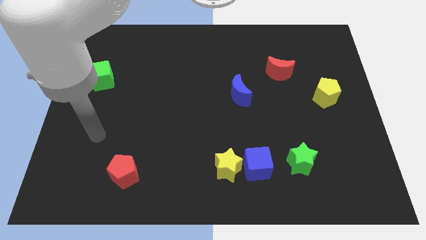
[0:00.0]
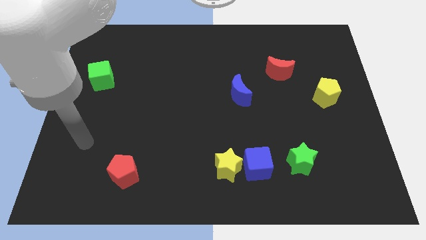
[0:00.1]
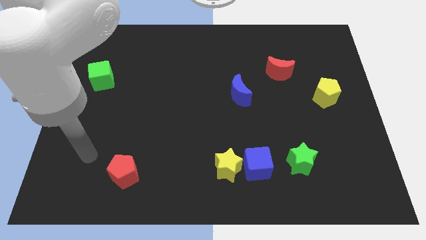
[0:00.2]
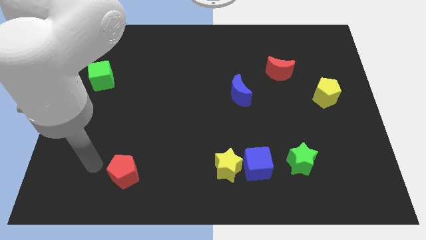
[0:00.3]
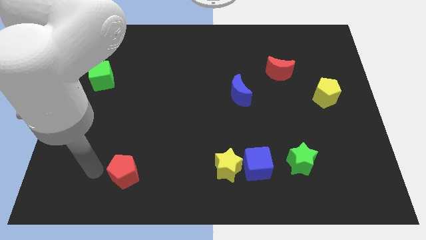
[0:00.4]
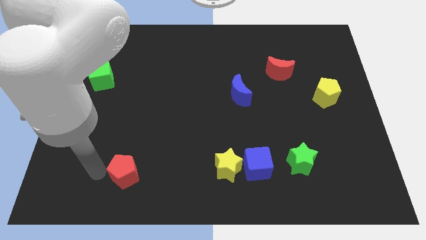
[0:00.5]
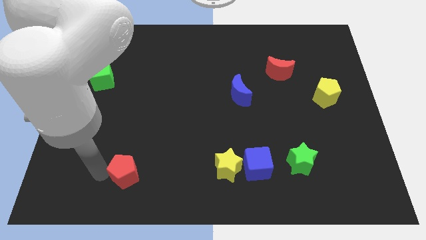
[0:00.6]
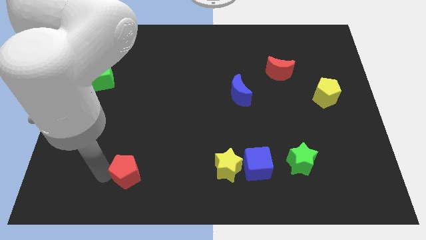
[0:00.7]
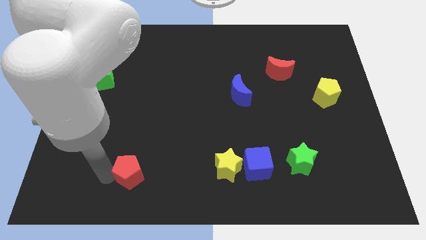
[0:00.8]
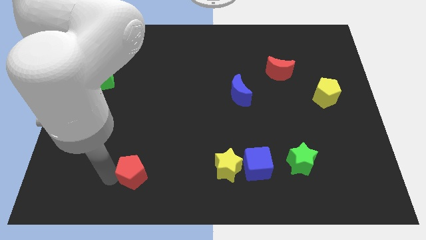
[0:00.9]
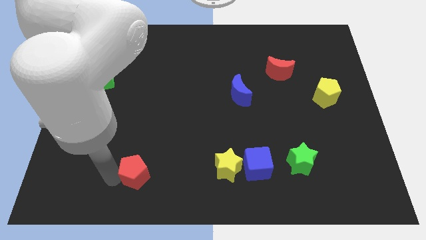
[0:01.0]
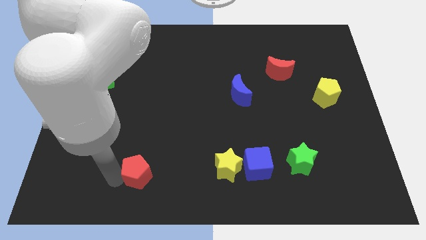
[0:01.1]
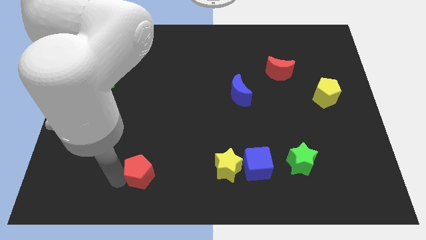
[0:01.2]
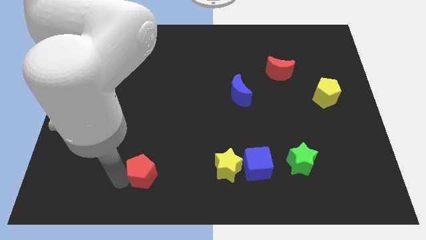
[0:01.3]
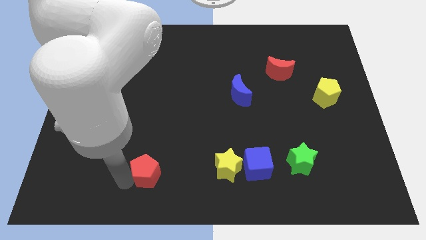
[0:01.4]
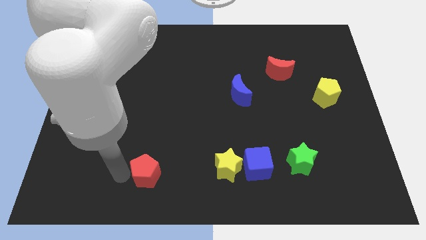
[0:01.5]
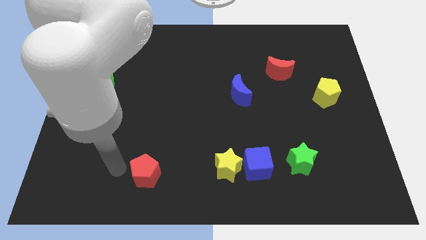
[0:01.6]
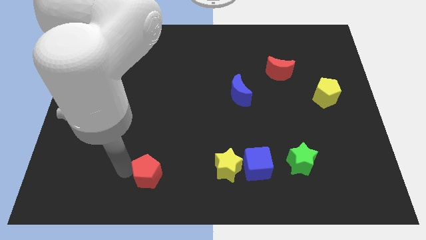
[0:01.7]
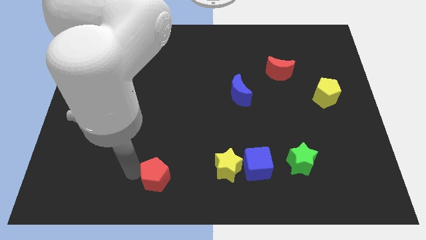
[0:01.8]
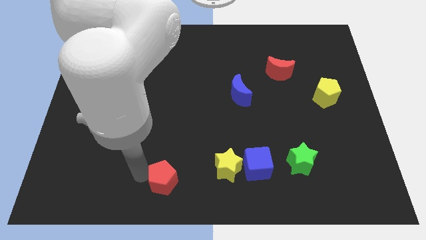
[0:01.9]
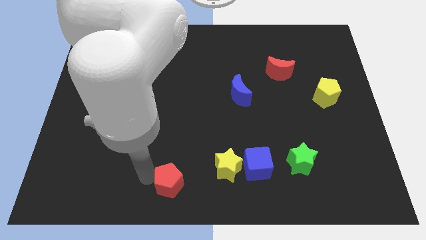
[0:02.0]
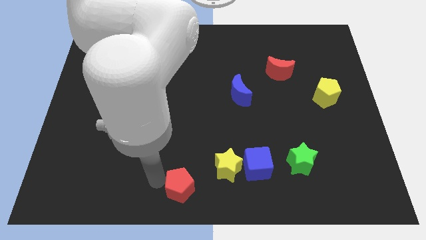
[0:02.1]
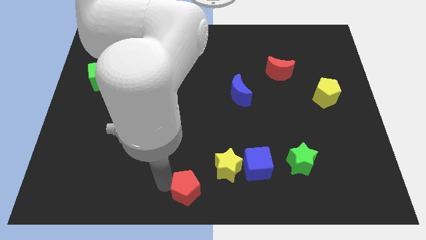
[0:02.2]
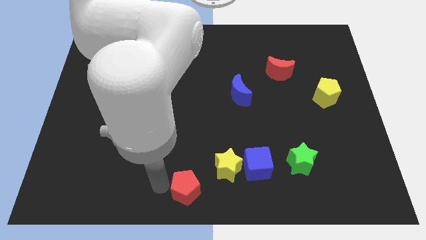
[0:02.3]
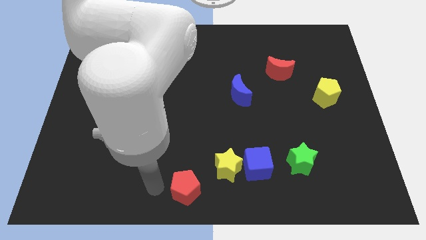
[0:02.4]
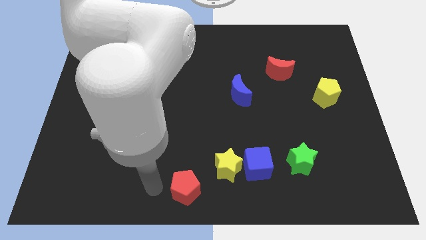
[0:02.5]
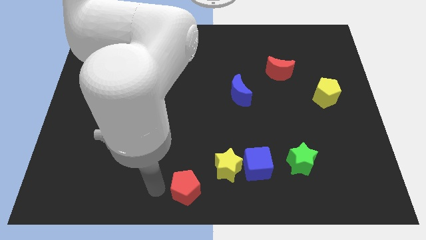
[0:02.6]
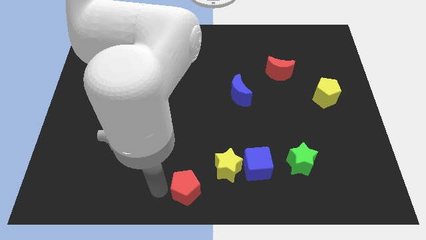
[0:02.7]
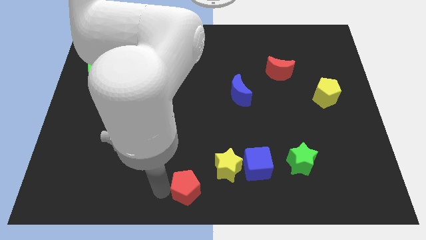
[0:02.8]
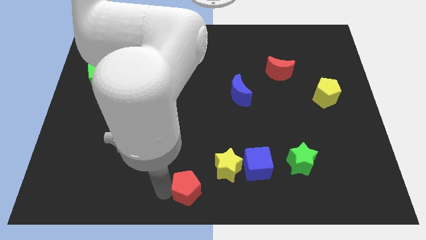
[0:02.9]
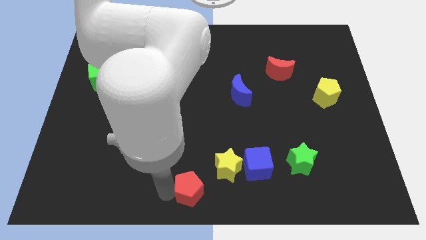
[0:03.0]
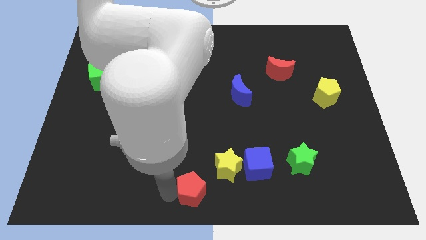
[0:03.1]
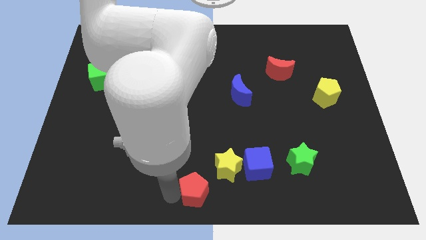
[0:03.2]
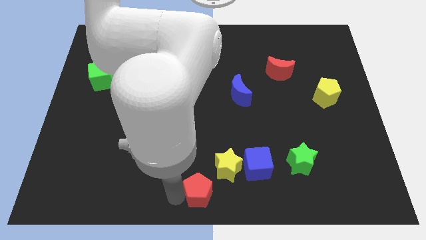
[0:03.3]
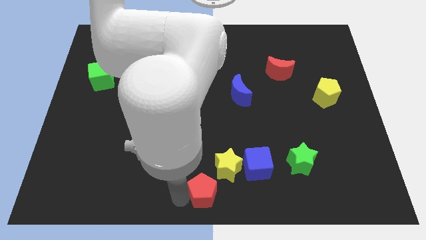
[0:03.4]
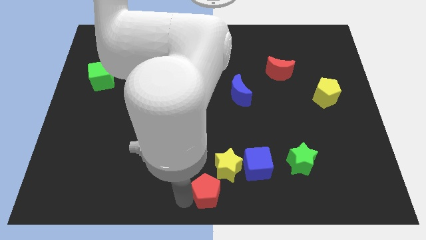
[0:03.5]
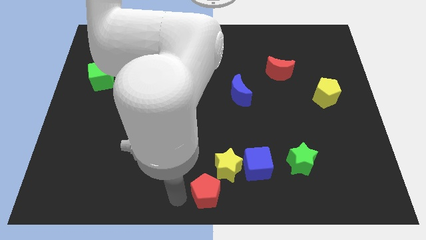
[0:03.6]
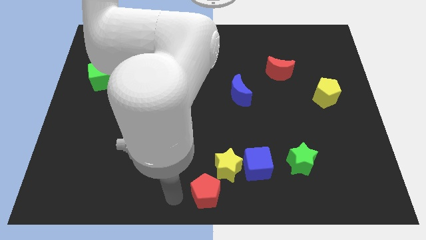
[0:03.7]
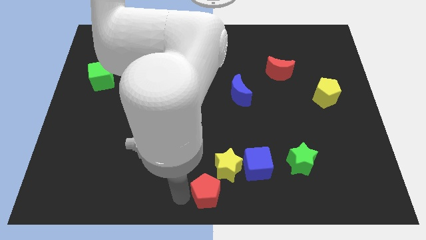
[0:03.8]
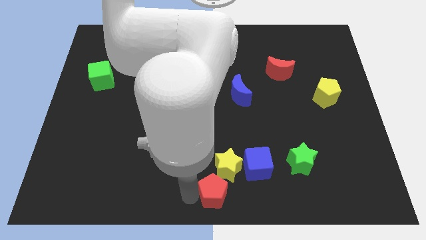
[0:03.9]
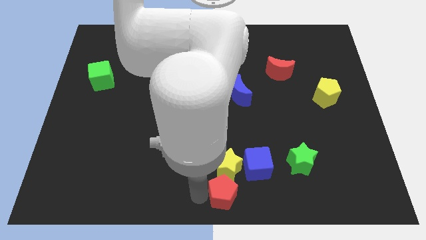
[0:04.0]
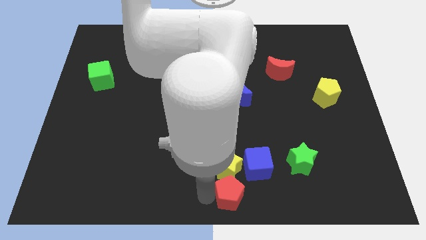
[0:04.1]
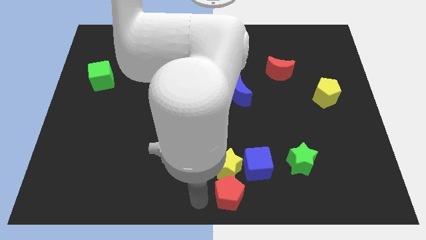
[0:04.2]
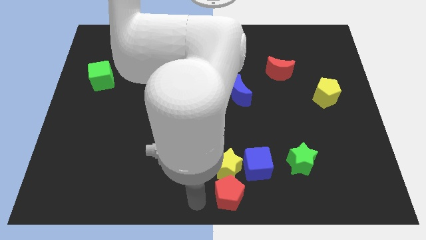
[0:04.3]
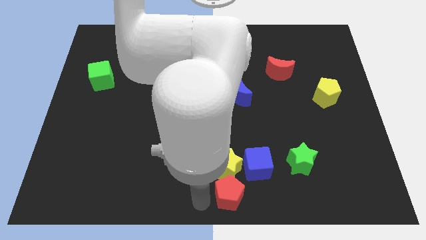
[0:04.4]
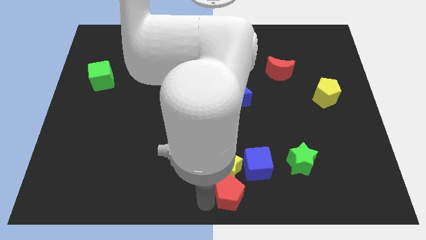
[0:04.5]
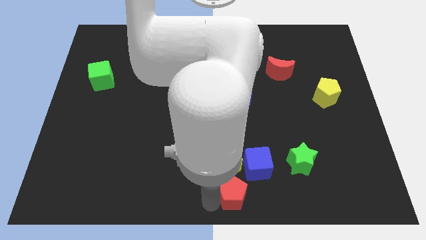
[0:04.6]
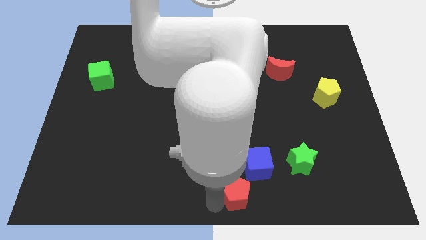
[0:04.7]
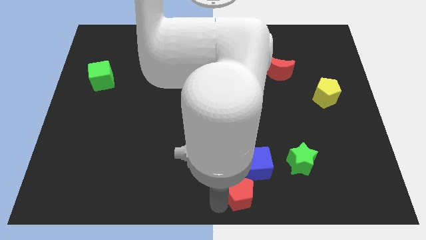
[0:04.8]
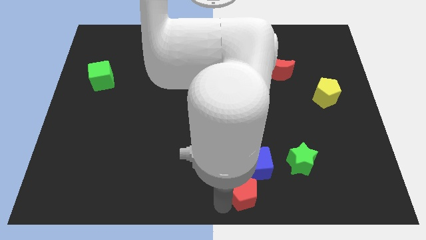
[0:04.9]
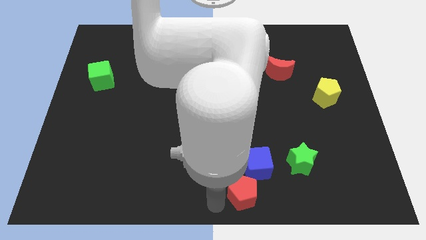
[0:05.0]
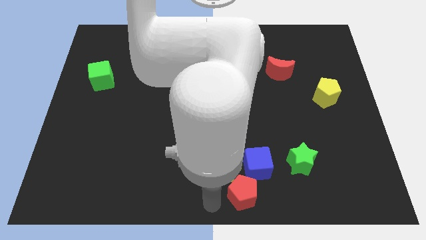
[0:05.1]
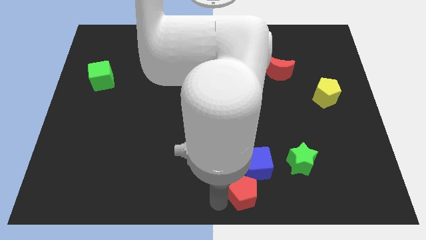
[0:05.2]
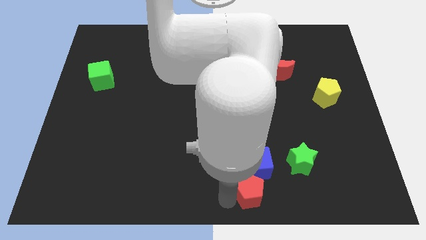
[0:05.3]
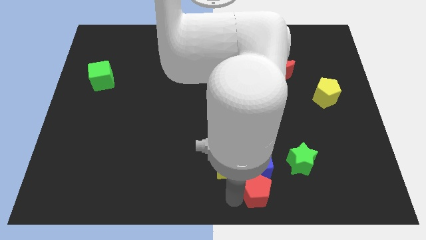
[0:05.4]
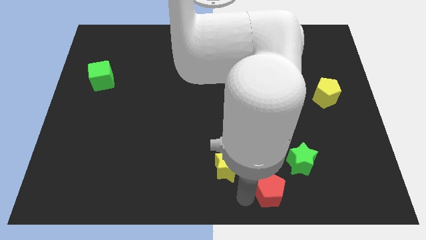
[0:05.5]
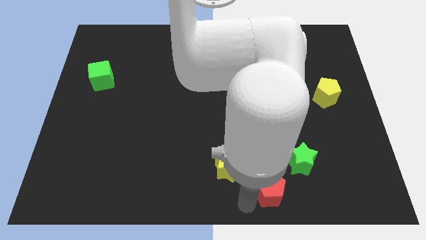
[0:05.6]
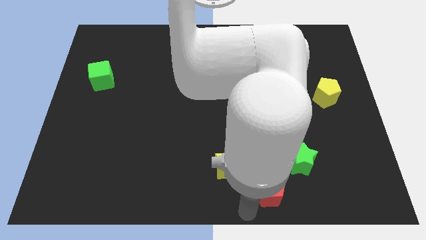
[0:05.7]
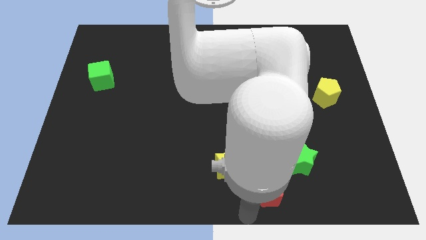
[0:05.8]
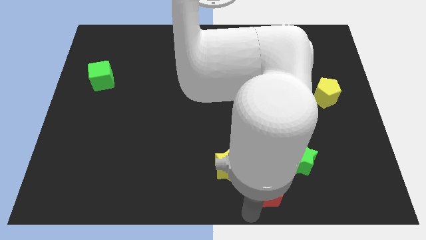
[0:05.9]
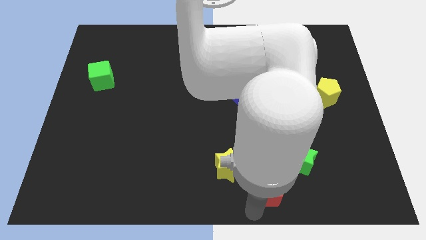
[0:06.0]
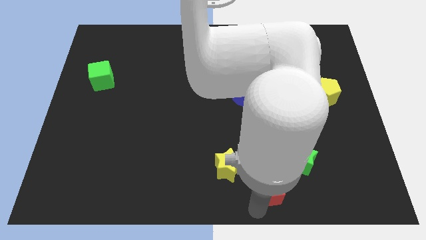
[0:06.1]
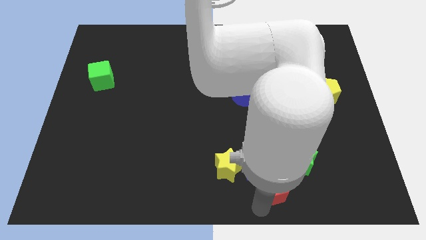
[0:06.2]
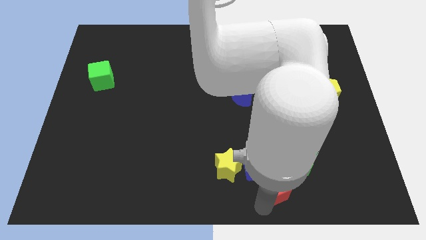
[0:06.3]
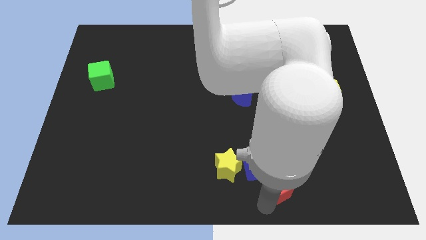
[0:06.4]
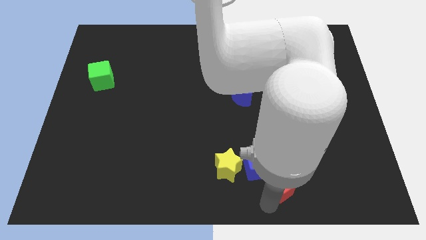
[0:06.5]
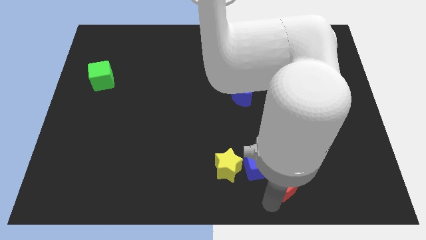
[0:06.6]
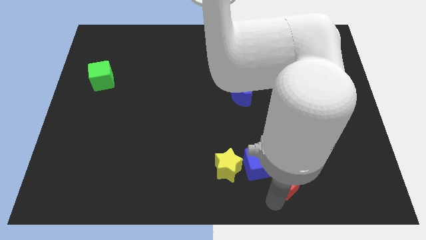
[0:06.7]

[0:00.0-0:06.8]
push the red pentagon next to the green star

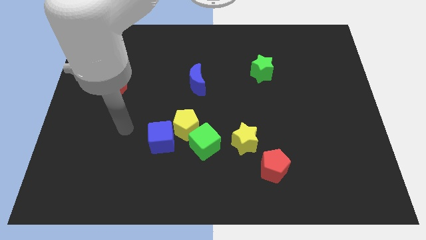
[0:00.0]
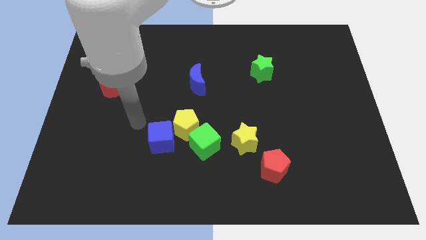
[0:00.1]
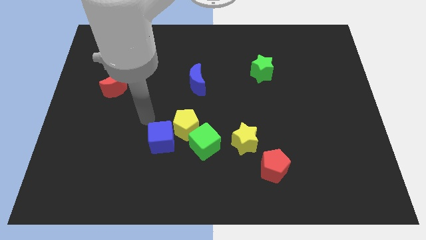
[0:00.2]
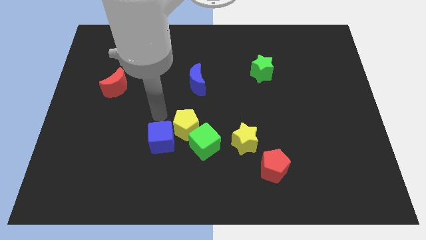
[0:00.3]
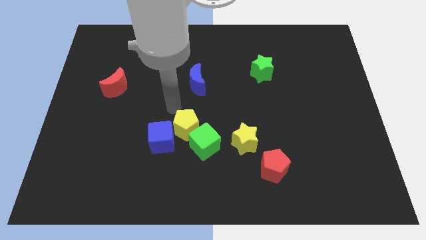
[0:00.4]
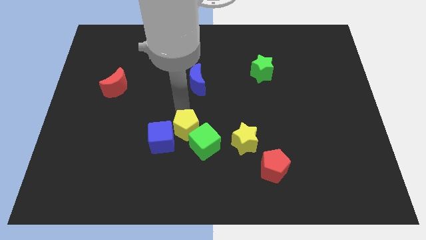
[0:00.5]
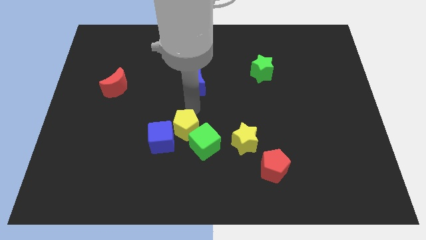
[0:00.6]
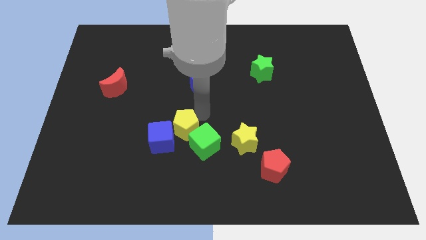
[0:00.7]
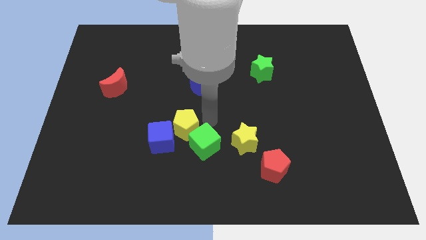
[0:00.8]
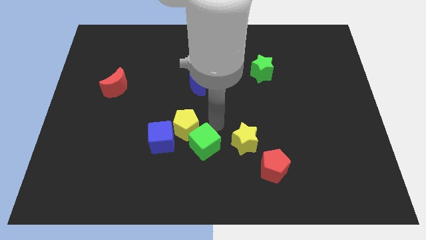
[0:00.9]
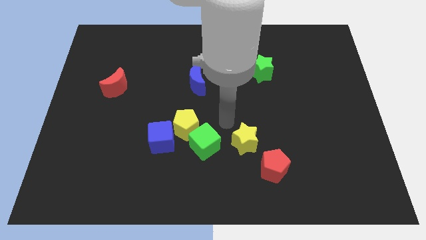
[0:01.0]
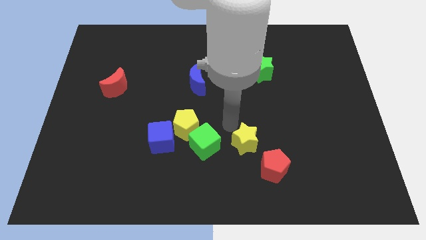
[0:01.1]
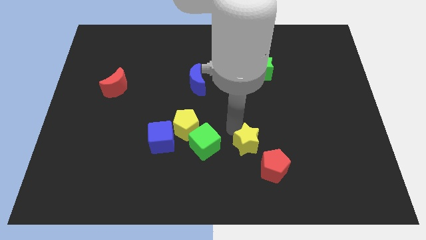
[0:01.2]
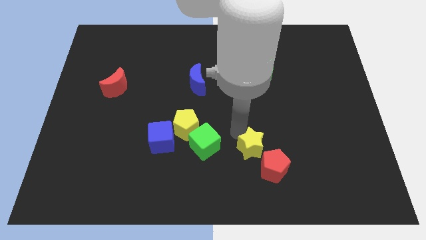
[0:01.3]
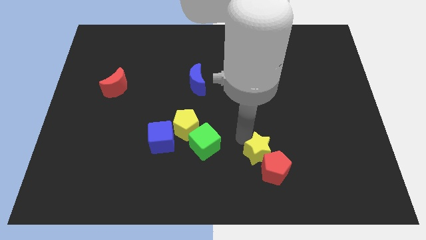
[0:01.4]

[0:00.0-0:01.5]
push the yellow star to the red pentagon
